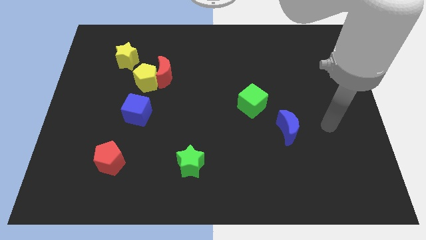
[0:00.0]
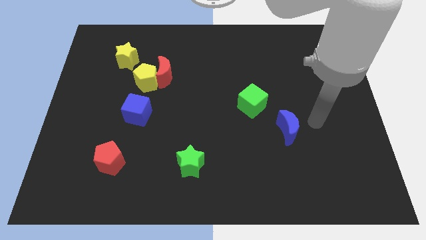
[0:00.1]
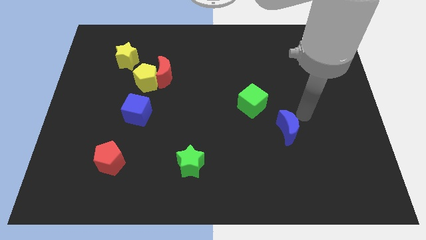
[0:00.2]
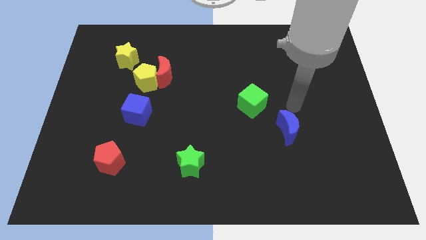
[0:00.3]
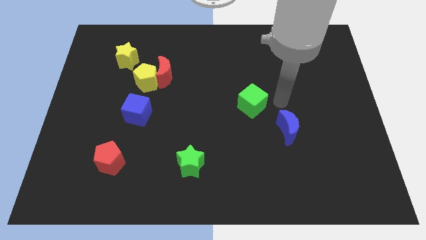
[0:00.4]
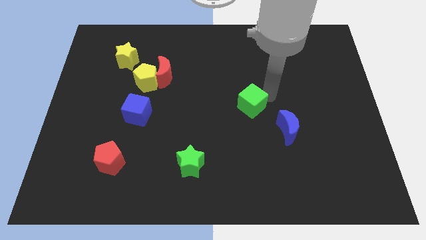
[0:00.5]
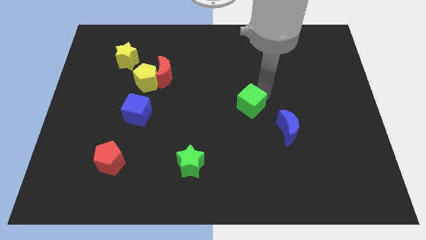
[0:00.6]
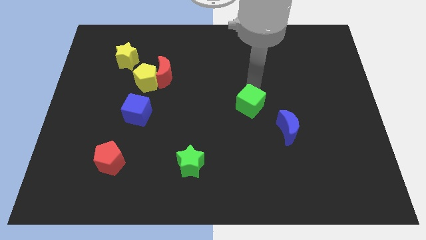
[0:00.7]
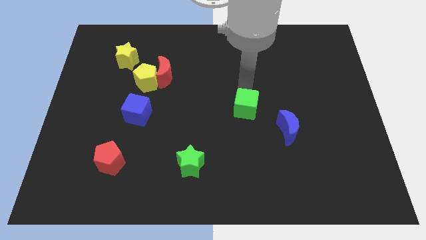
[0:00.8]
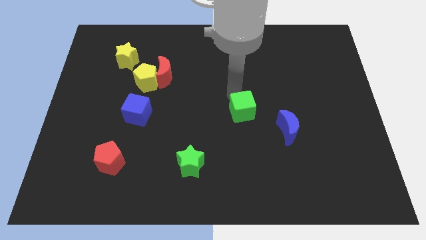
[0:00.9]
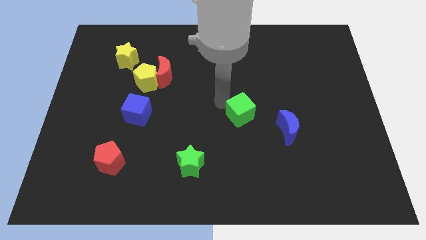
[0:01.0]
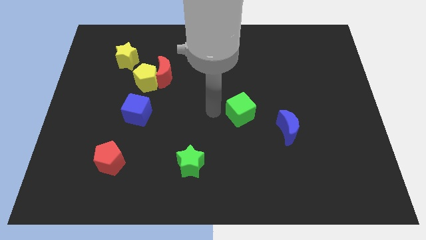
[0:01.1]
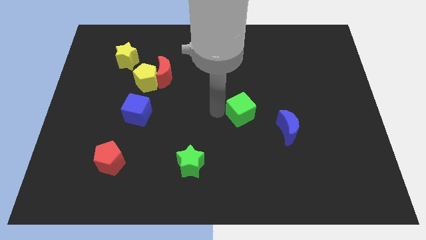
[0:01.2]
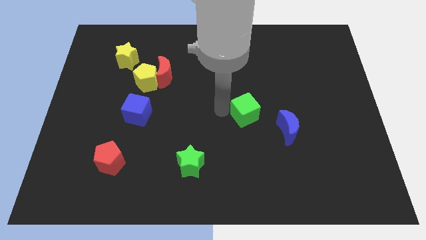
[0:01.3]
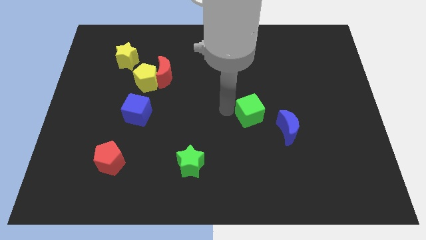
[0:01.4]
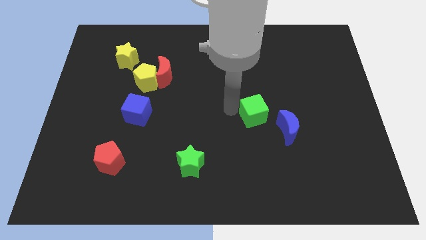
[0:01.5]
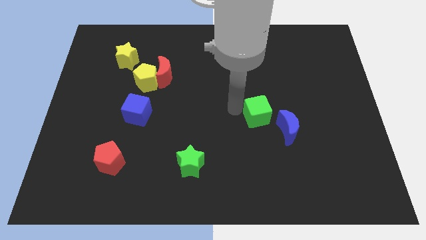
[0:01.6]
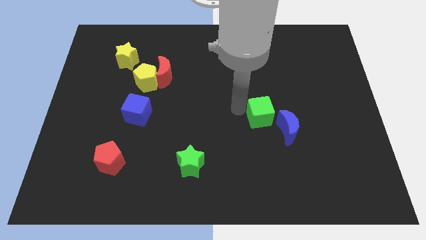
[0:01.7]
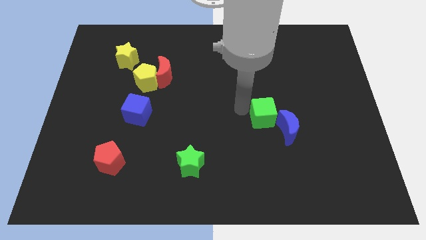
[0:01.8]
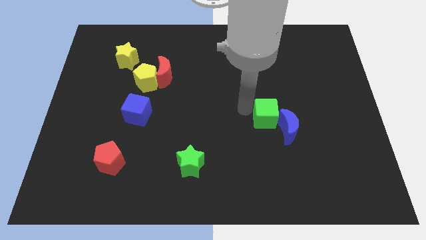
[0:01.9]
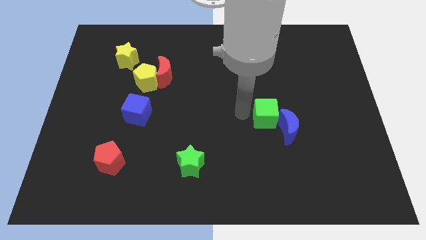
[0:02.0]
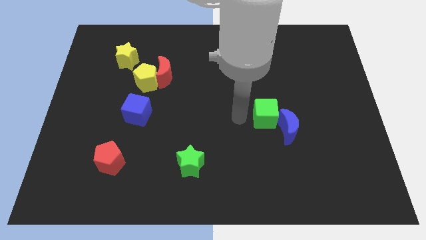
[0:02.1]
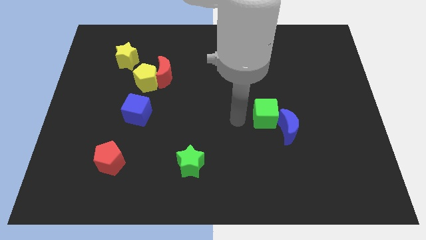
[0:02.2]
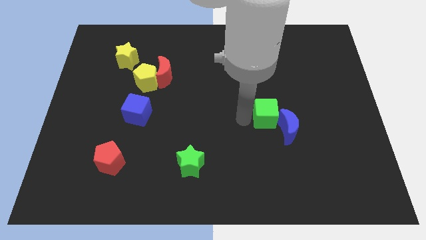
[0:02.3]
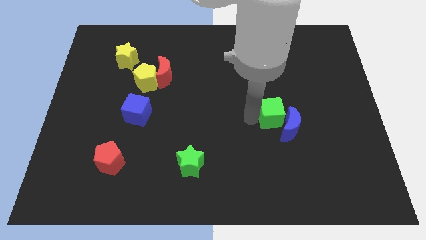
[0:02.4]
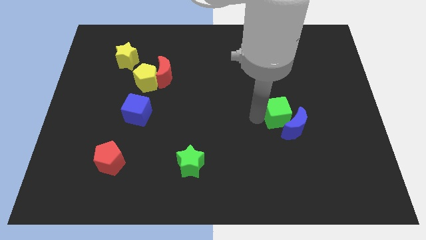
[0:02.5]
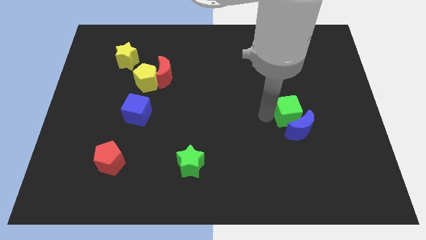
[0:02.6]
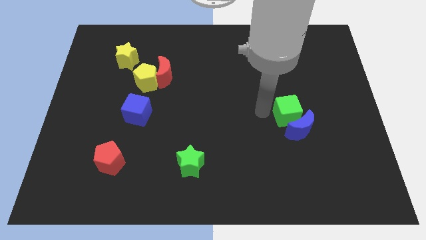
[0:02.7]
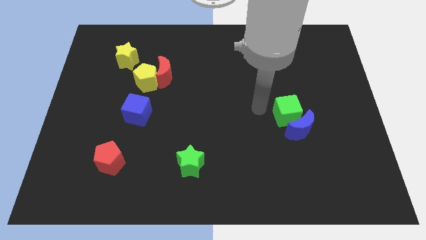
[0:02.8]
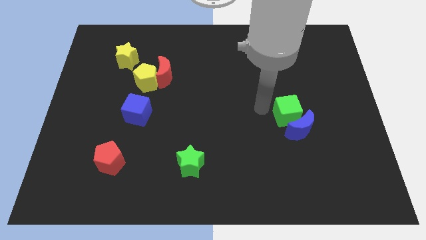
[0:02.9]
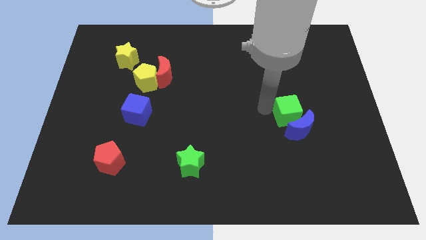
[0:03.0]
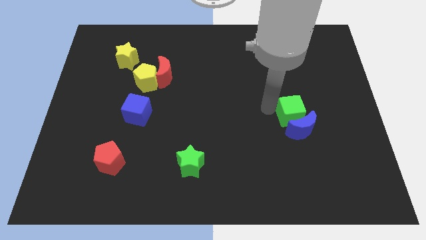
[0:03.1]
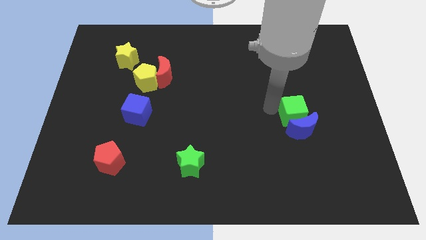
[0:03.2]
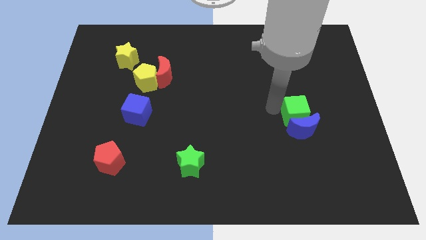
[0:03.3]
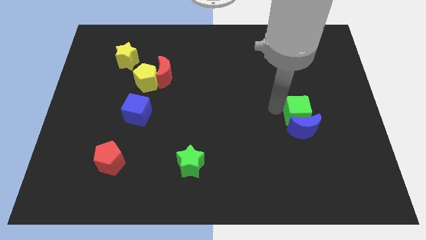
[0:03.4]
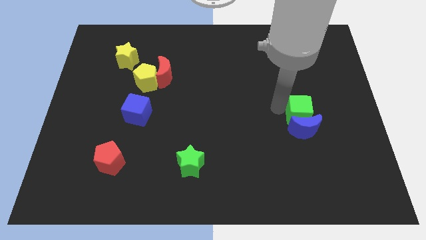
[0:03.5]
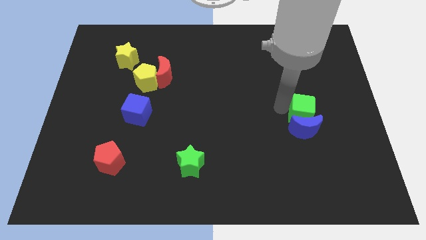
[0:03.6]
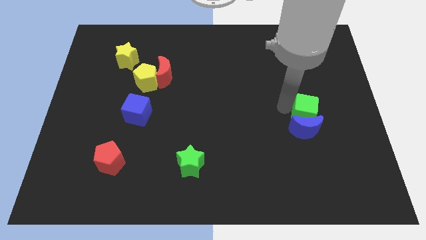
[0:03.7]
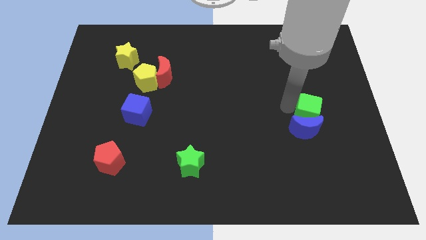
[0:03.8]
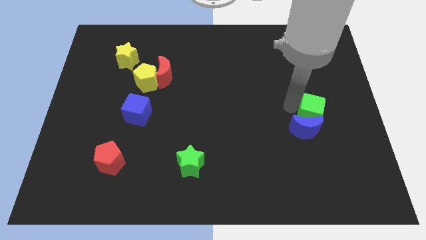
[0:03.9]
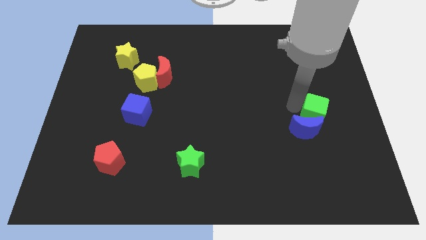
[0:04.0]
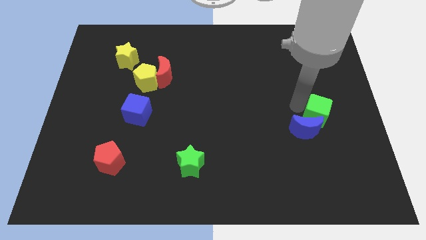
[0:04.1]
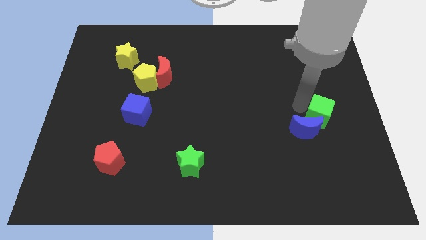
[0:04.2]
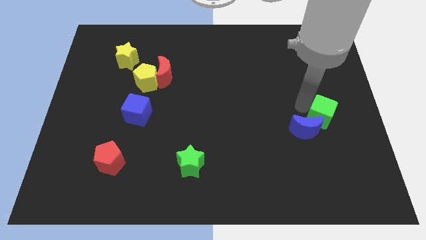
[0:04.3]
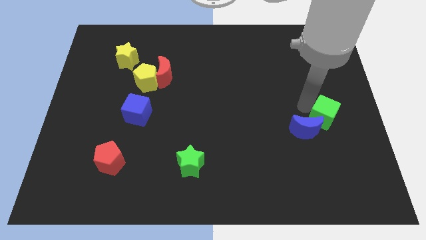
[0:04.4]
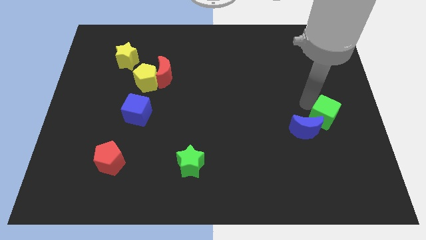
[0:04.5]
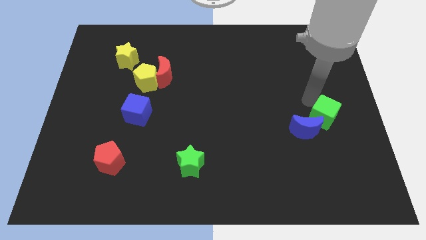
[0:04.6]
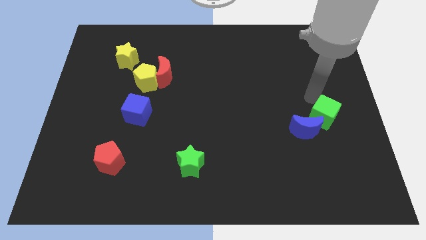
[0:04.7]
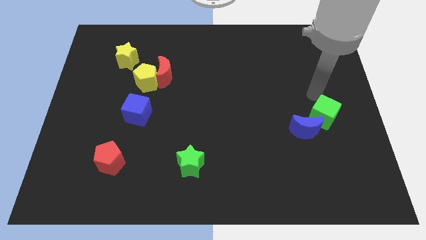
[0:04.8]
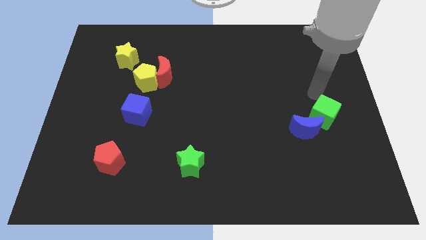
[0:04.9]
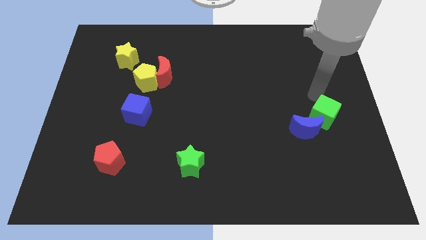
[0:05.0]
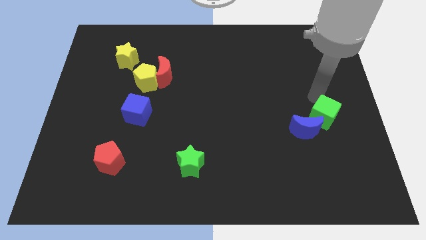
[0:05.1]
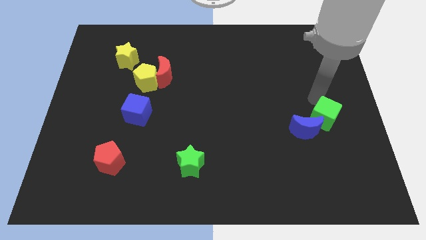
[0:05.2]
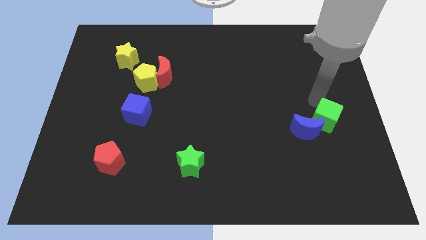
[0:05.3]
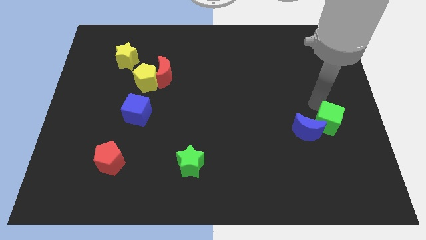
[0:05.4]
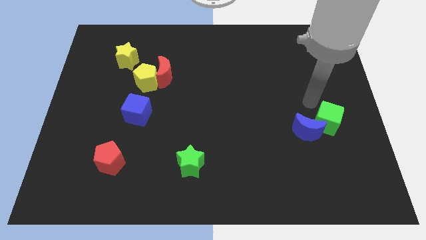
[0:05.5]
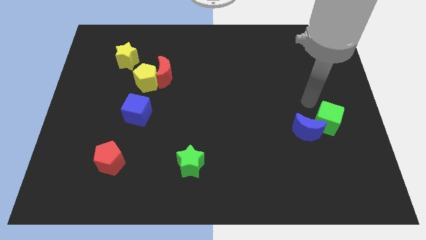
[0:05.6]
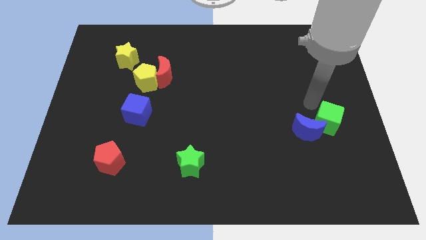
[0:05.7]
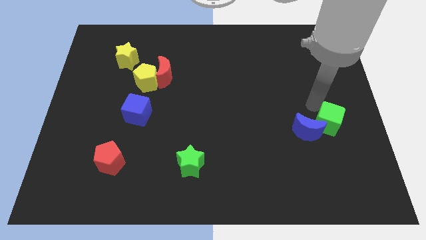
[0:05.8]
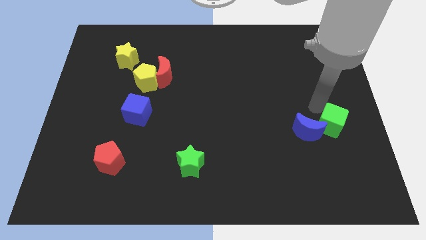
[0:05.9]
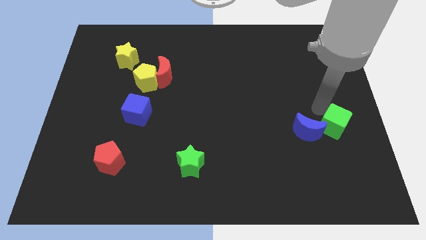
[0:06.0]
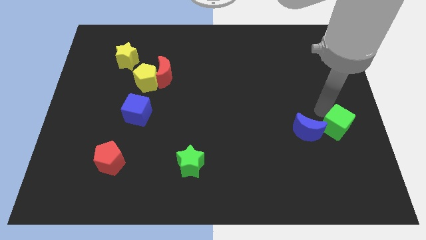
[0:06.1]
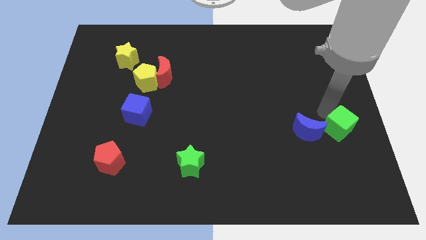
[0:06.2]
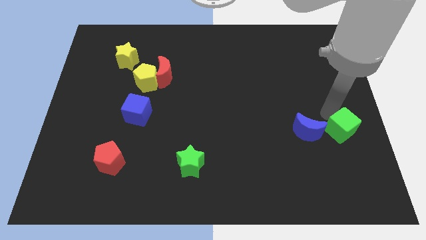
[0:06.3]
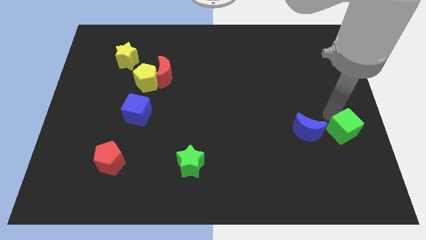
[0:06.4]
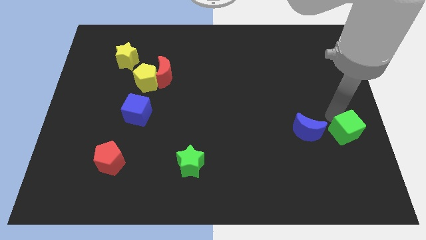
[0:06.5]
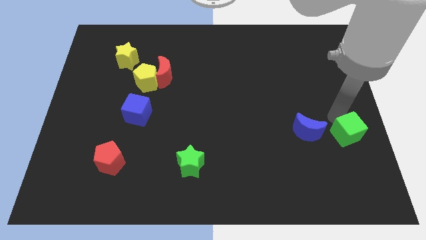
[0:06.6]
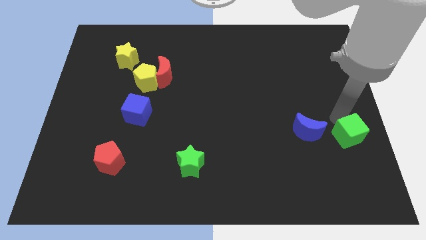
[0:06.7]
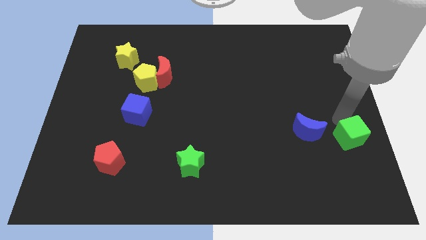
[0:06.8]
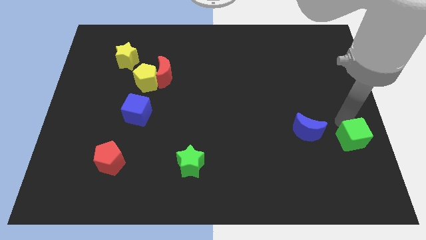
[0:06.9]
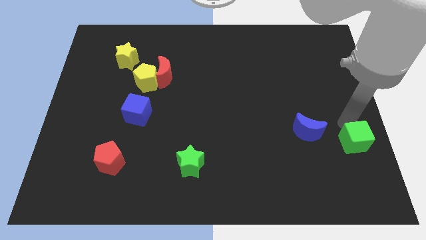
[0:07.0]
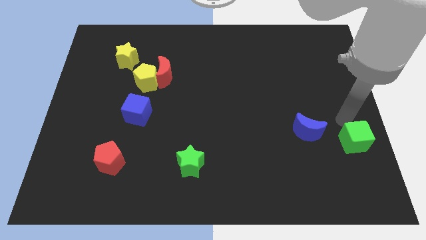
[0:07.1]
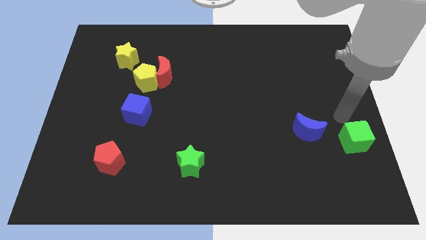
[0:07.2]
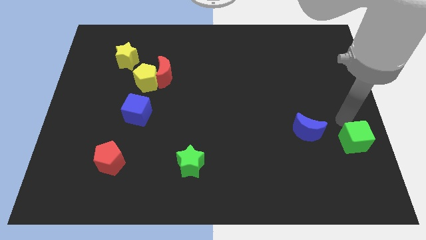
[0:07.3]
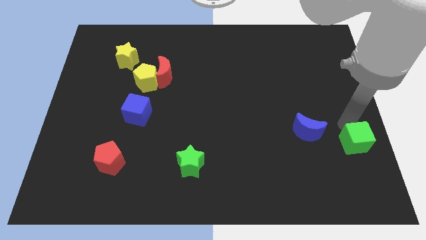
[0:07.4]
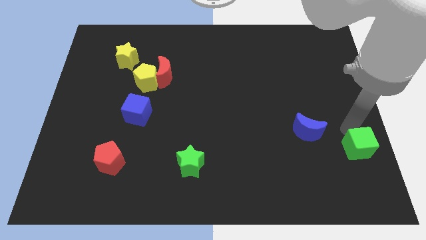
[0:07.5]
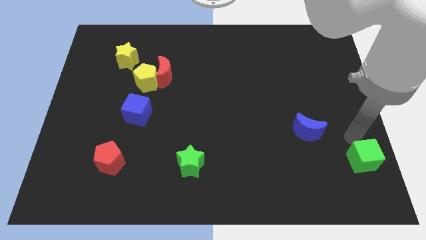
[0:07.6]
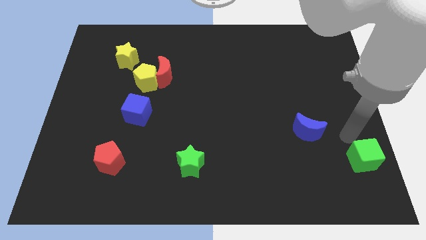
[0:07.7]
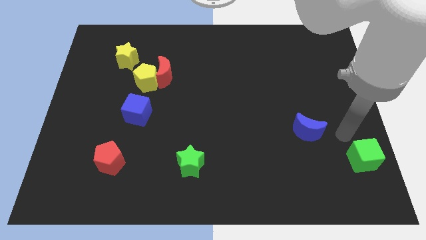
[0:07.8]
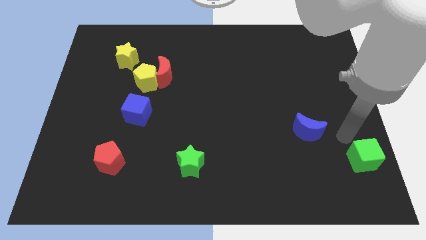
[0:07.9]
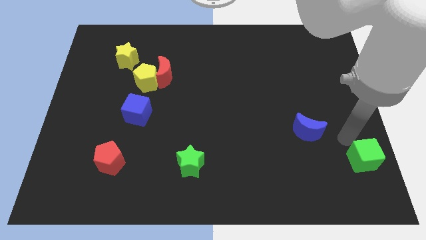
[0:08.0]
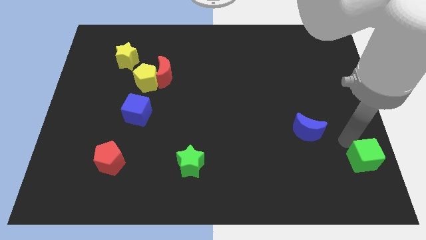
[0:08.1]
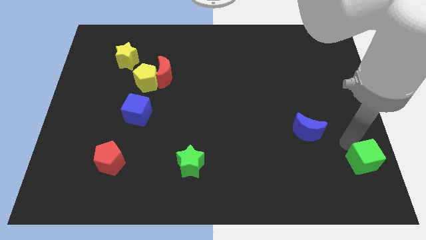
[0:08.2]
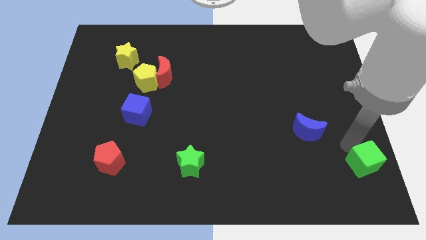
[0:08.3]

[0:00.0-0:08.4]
move the green cube to the lower right corner
